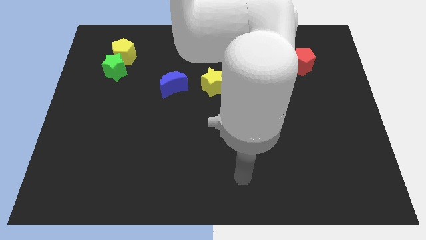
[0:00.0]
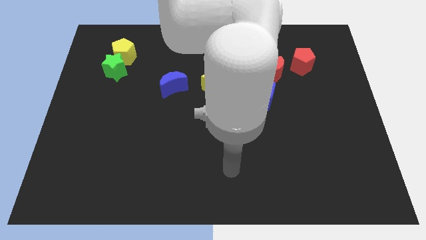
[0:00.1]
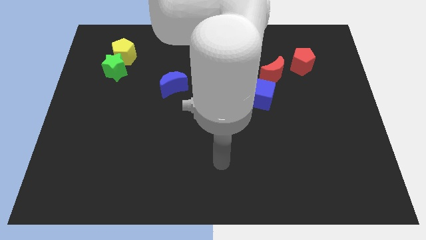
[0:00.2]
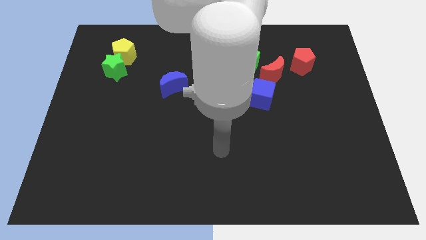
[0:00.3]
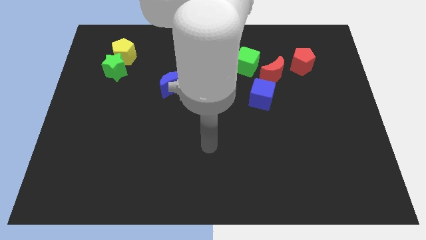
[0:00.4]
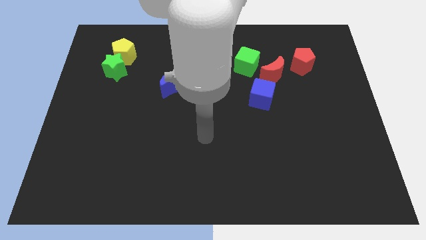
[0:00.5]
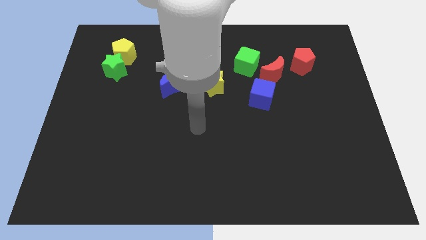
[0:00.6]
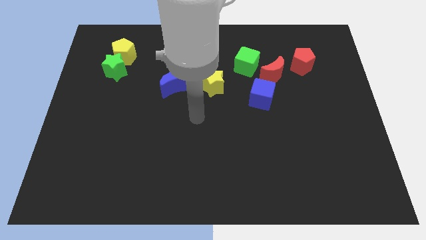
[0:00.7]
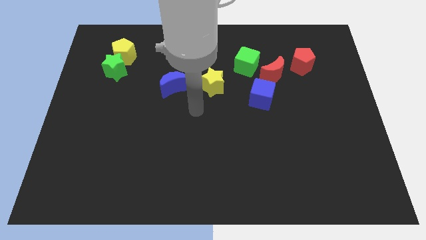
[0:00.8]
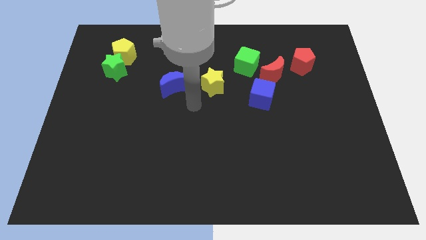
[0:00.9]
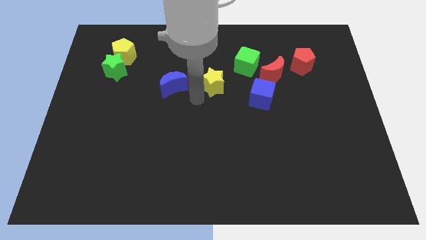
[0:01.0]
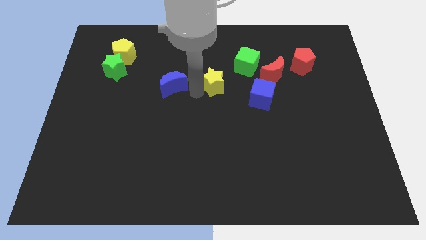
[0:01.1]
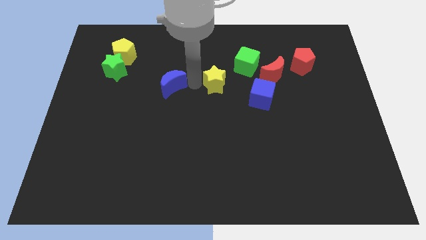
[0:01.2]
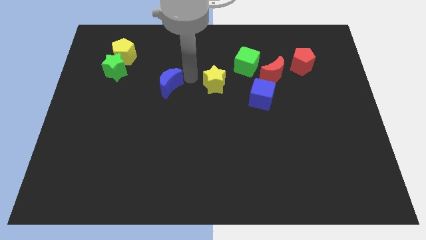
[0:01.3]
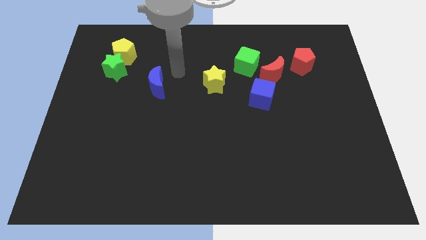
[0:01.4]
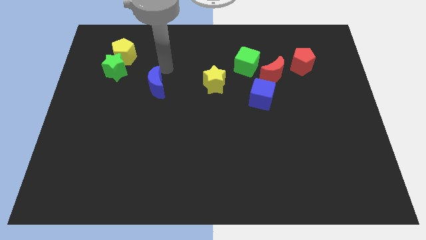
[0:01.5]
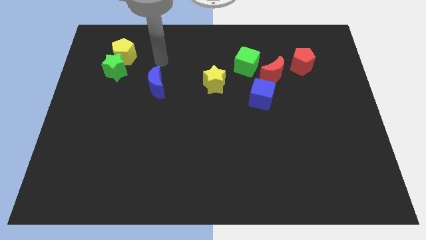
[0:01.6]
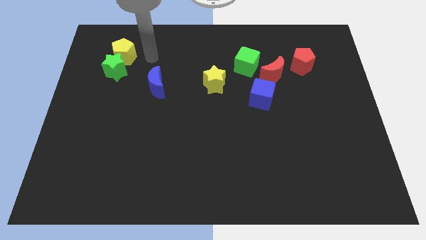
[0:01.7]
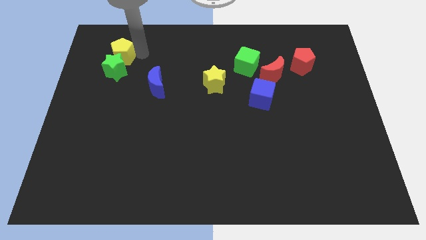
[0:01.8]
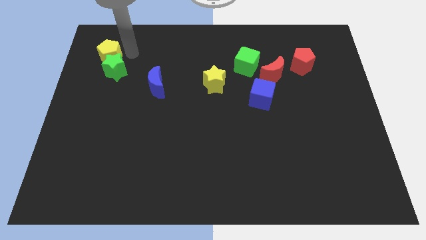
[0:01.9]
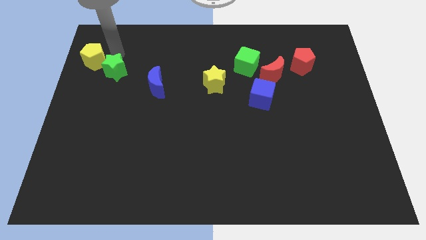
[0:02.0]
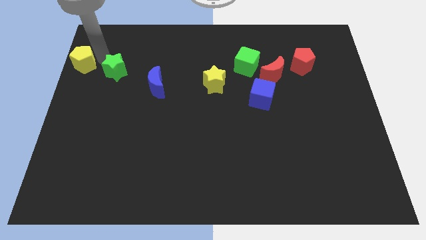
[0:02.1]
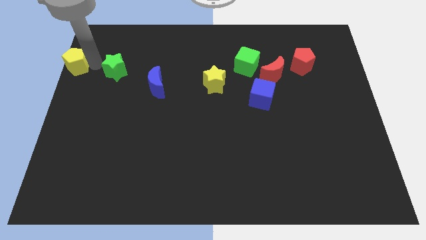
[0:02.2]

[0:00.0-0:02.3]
separate the green star from the yellow pentagon

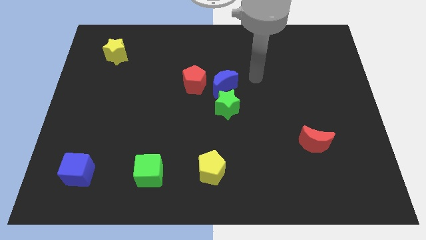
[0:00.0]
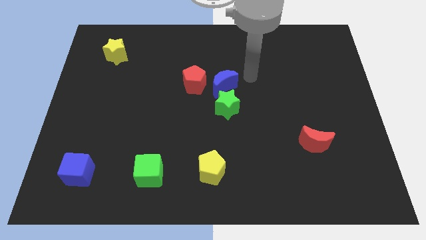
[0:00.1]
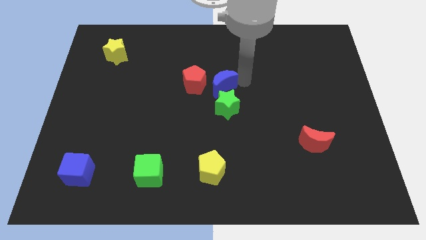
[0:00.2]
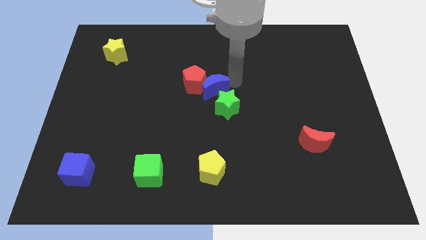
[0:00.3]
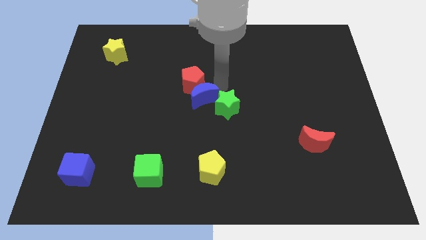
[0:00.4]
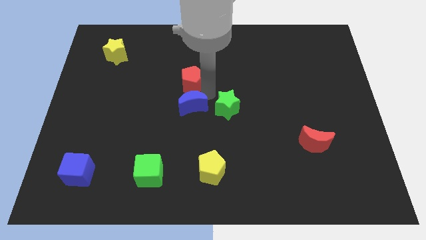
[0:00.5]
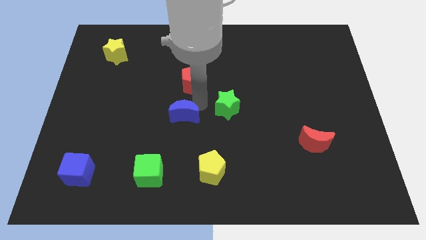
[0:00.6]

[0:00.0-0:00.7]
pull the green star apart from the blue moon

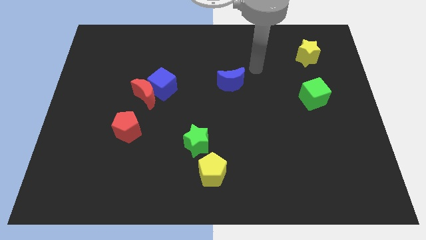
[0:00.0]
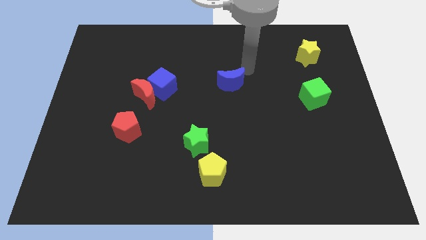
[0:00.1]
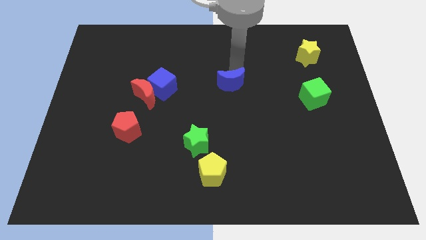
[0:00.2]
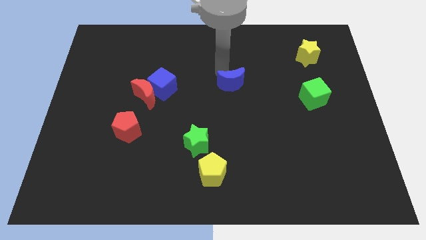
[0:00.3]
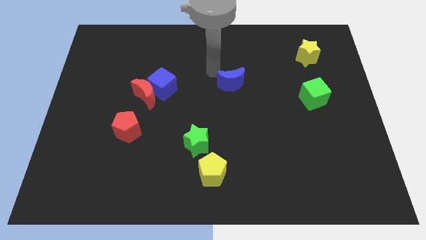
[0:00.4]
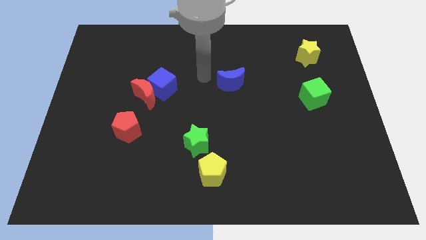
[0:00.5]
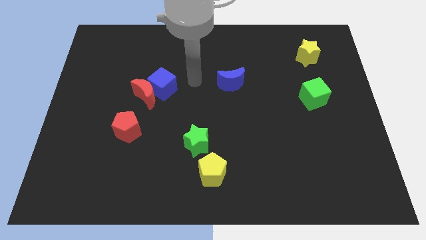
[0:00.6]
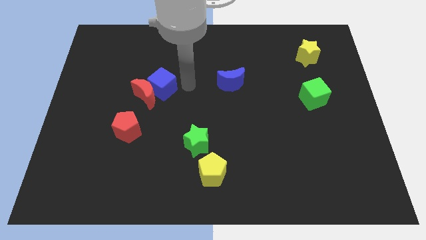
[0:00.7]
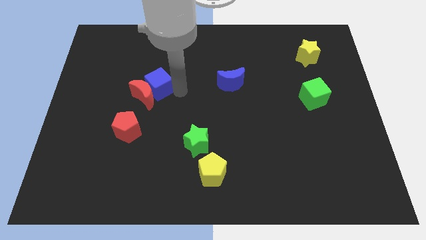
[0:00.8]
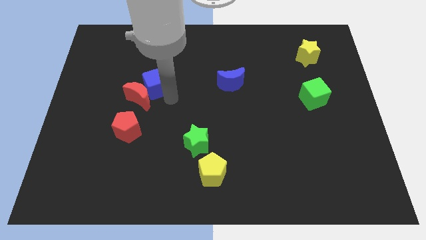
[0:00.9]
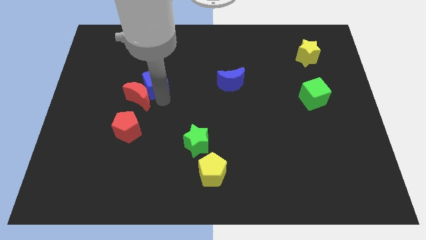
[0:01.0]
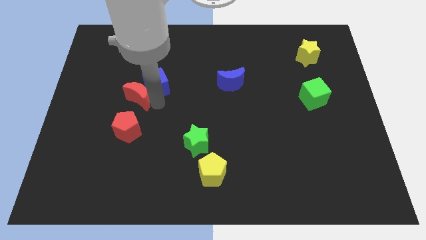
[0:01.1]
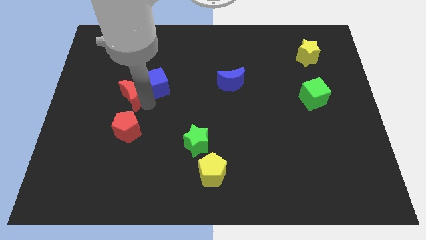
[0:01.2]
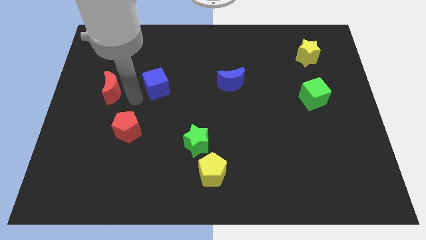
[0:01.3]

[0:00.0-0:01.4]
separate the blue cube from the red moon

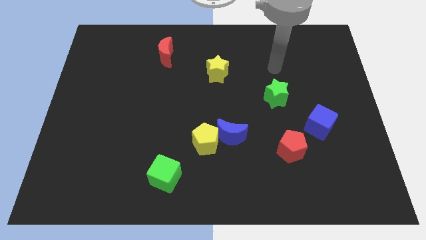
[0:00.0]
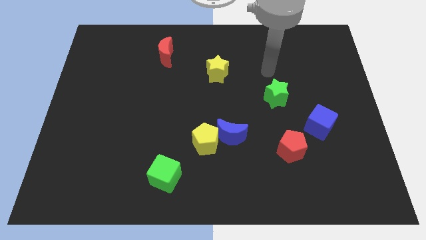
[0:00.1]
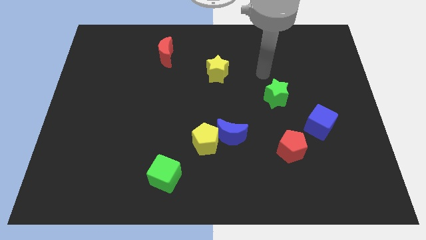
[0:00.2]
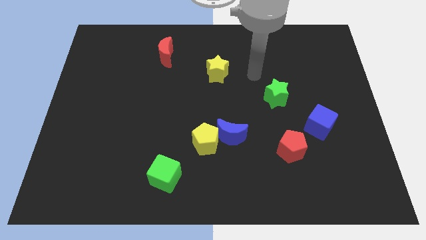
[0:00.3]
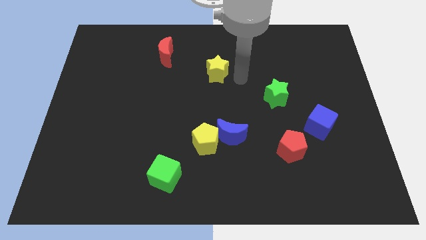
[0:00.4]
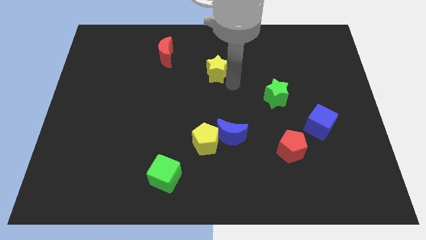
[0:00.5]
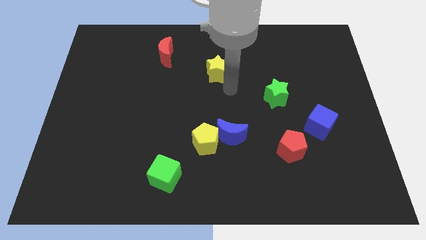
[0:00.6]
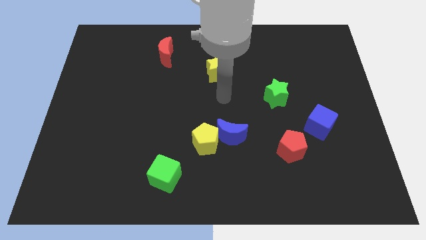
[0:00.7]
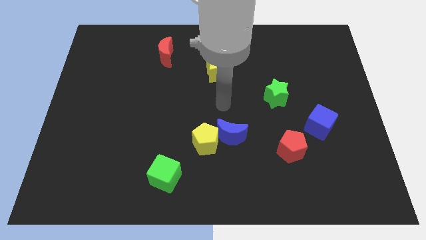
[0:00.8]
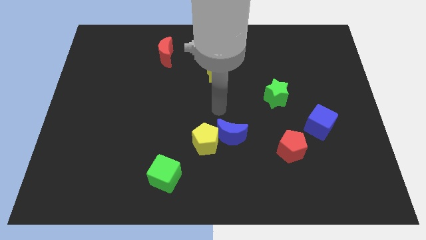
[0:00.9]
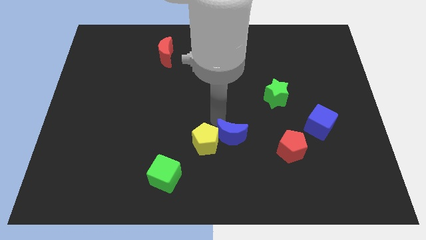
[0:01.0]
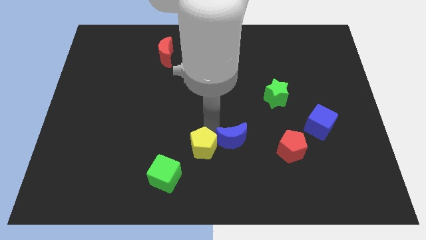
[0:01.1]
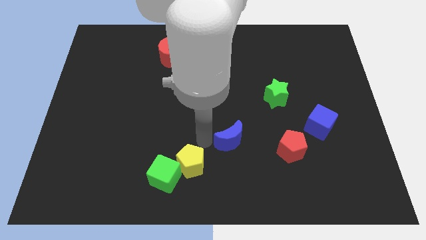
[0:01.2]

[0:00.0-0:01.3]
pull the blue moon apart from the yellow pentagon

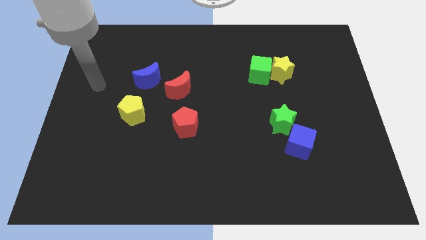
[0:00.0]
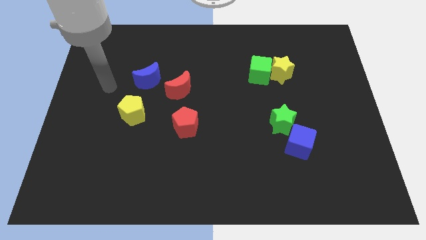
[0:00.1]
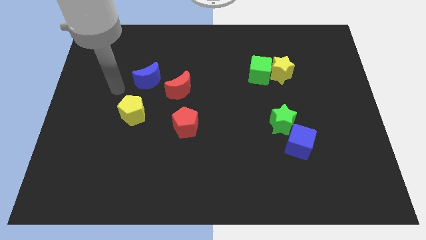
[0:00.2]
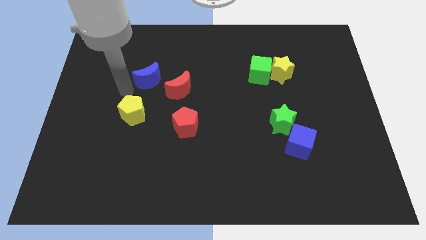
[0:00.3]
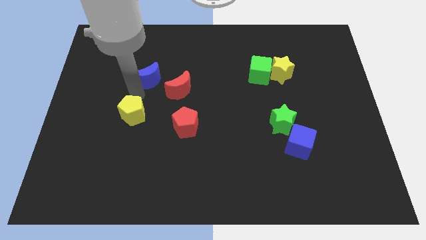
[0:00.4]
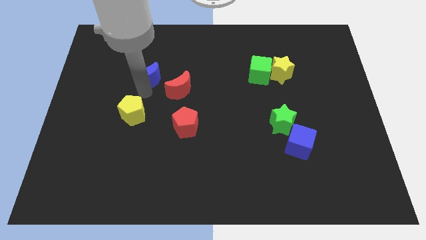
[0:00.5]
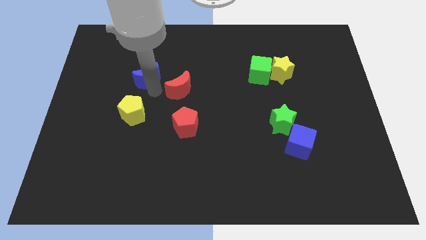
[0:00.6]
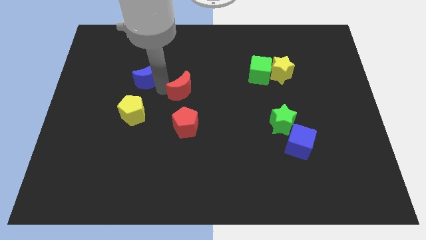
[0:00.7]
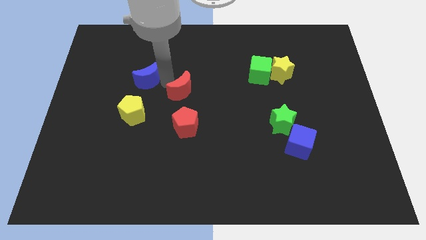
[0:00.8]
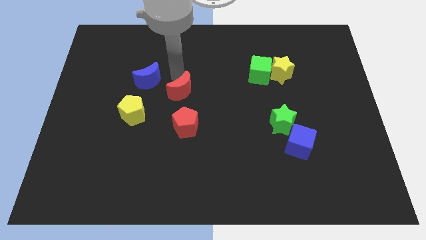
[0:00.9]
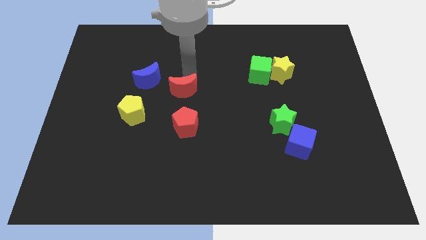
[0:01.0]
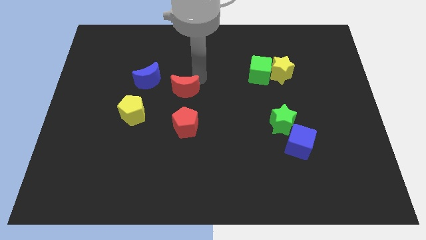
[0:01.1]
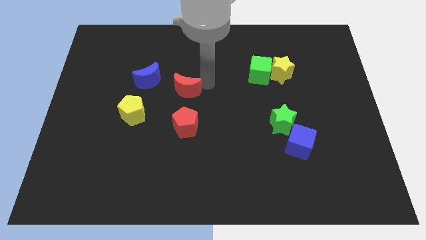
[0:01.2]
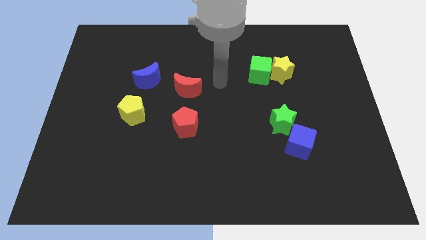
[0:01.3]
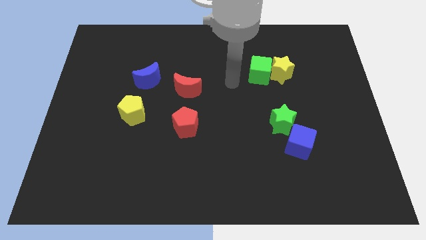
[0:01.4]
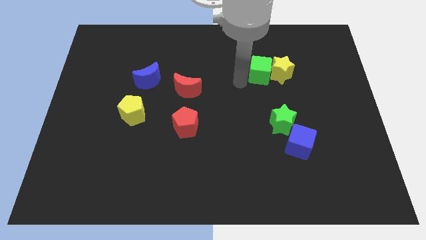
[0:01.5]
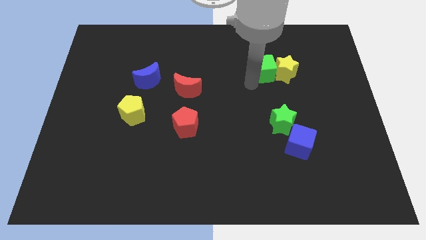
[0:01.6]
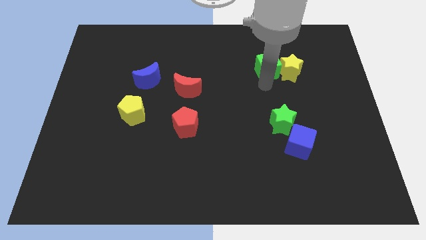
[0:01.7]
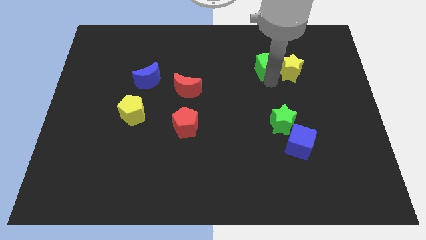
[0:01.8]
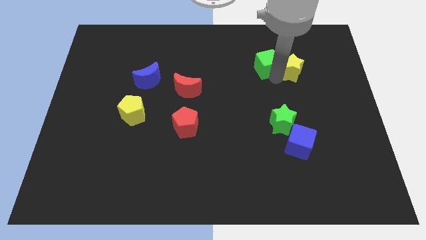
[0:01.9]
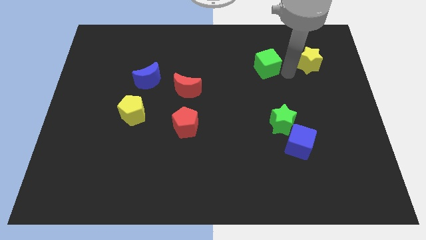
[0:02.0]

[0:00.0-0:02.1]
pull the green cube apart from the yellow star

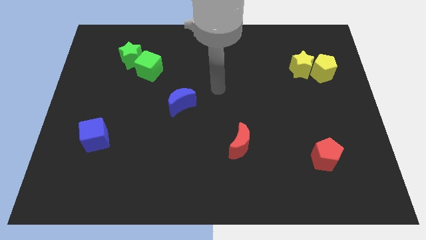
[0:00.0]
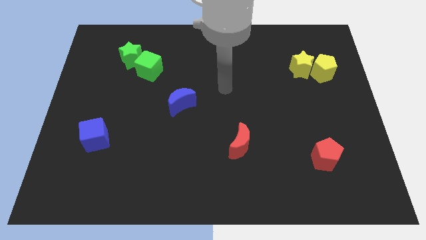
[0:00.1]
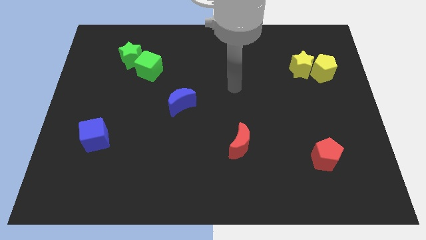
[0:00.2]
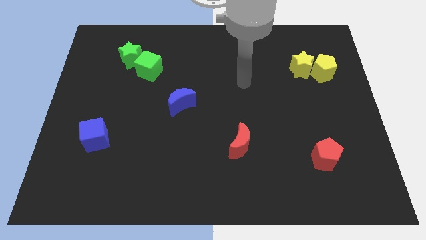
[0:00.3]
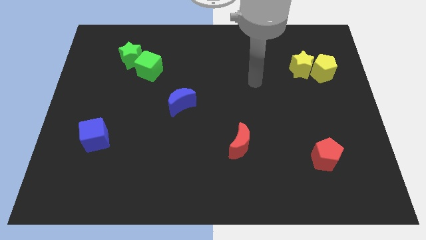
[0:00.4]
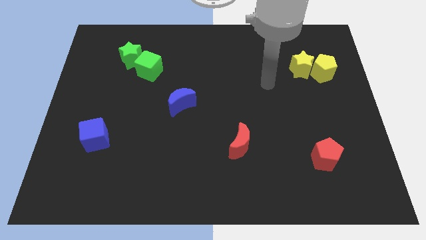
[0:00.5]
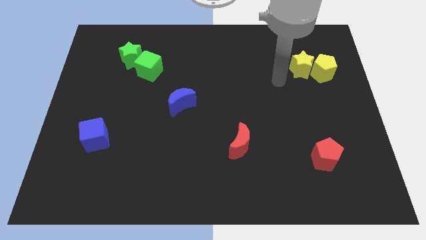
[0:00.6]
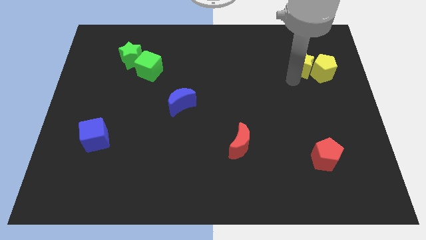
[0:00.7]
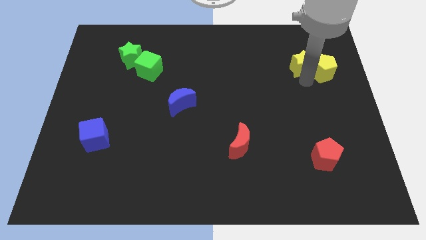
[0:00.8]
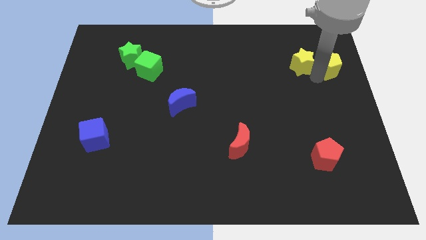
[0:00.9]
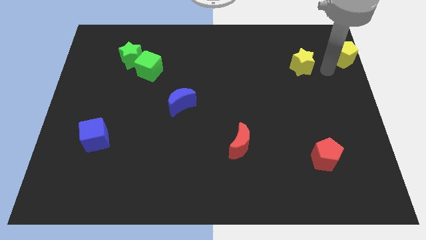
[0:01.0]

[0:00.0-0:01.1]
move the yellow star away from the yellow pentagon

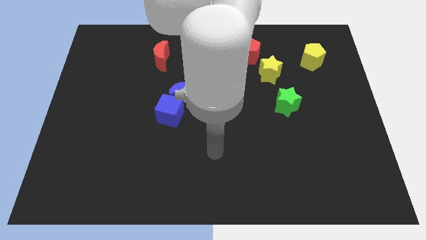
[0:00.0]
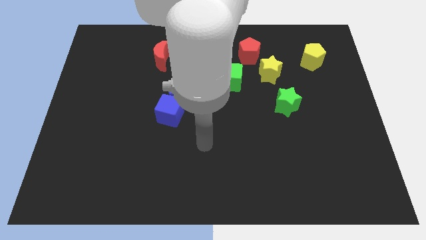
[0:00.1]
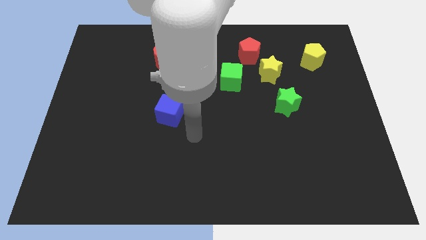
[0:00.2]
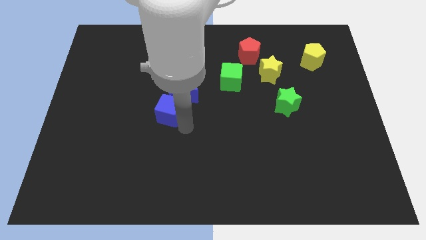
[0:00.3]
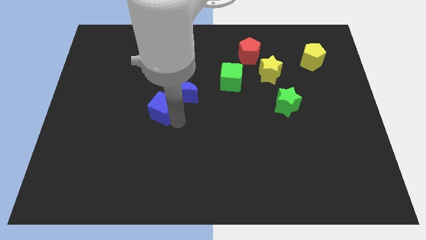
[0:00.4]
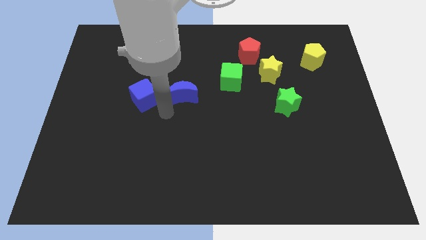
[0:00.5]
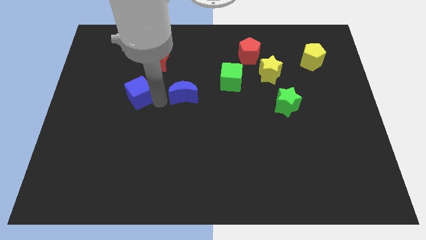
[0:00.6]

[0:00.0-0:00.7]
pull the blue moon apart from the blue cube
